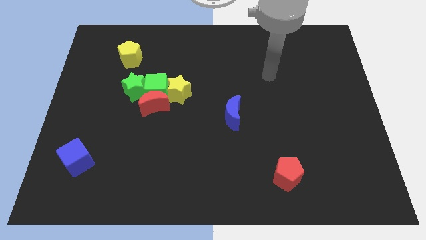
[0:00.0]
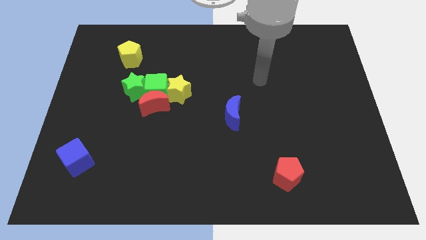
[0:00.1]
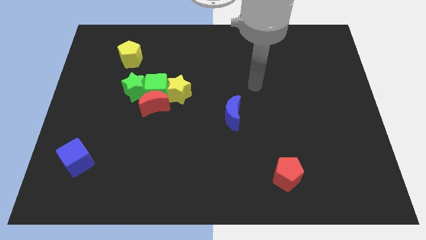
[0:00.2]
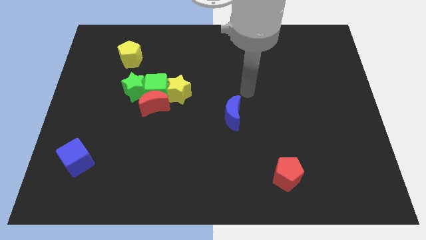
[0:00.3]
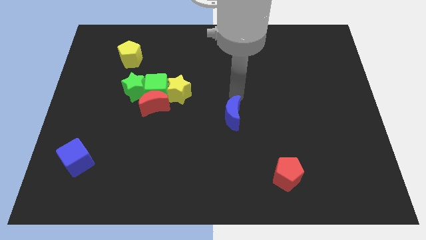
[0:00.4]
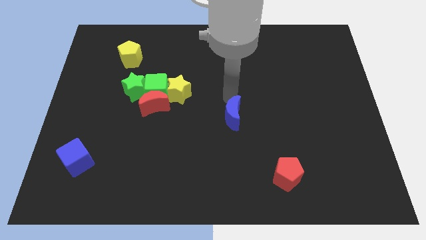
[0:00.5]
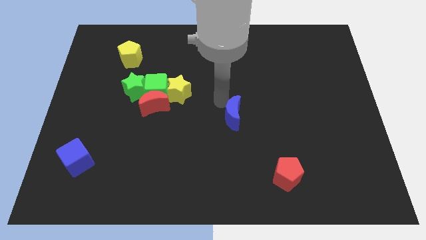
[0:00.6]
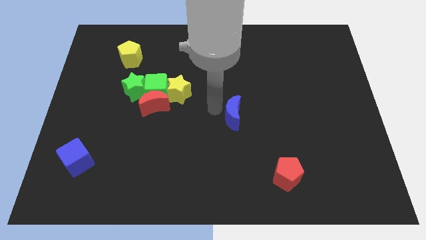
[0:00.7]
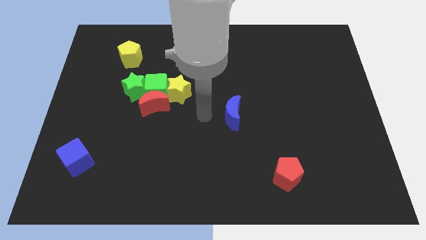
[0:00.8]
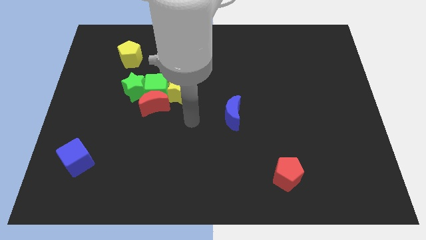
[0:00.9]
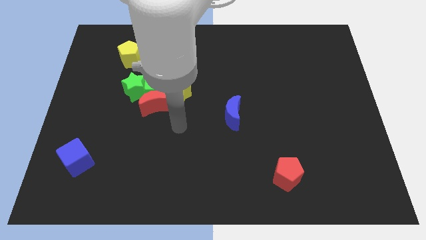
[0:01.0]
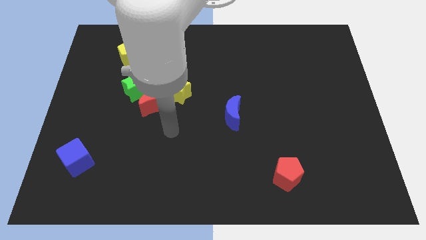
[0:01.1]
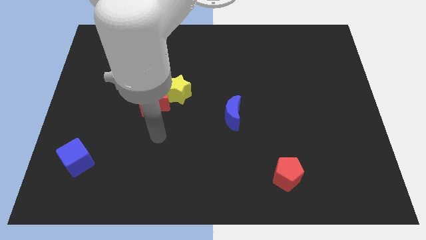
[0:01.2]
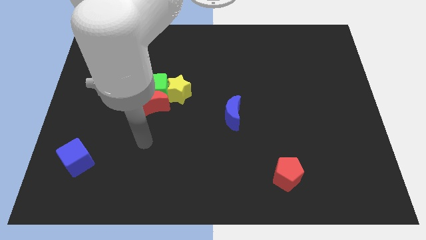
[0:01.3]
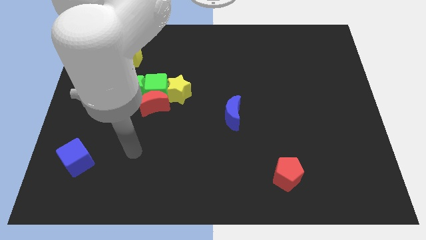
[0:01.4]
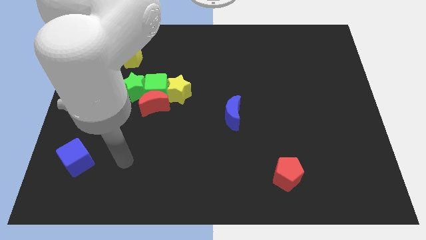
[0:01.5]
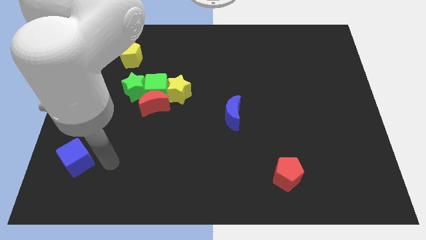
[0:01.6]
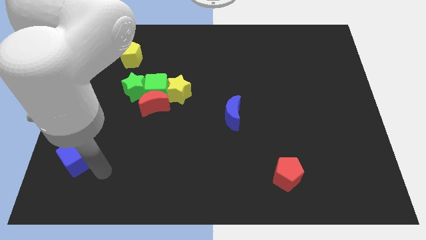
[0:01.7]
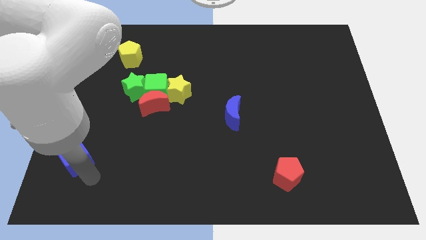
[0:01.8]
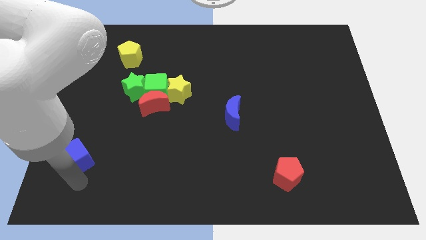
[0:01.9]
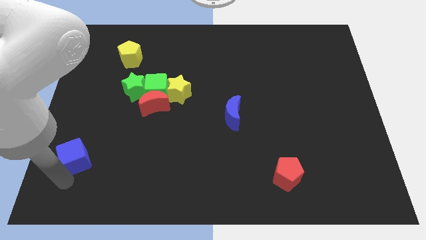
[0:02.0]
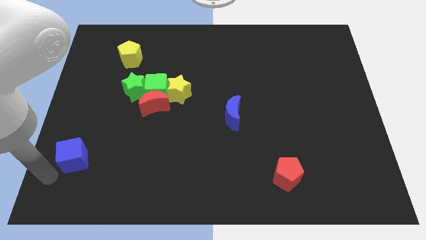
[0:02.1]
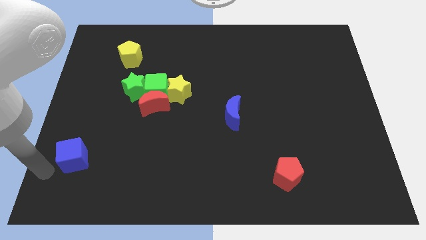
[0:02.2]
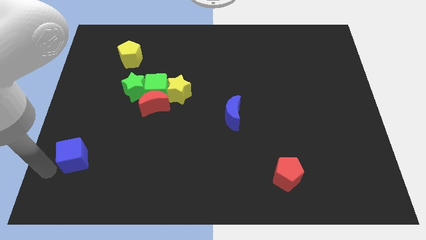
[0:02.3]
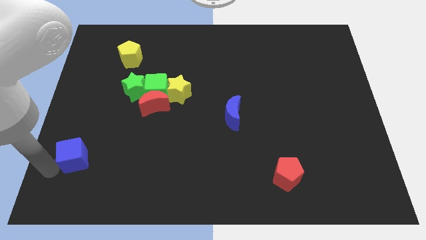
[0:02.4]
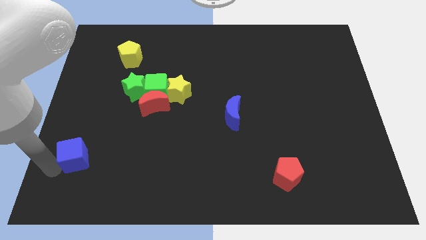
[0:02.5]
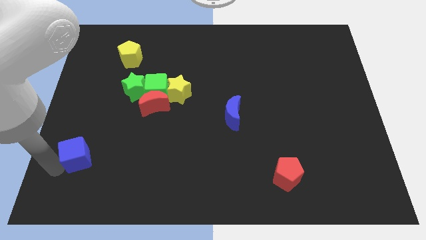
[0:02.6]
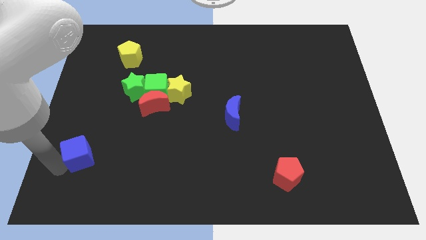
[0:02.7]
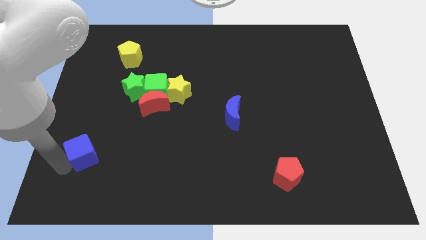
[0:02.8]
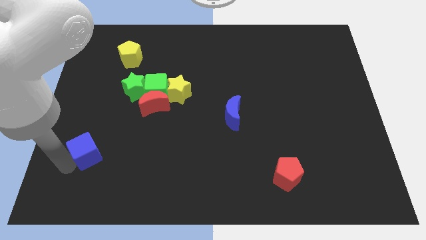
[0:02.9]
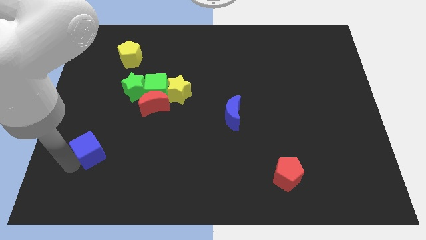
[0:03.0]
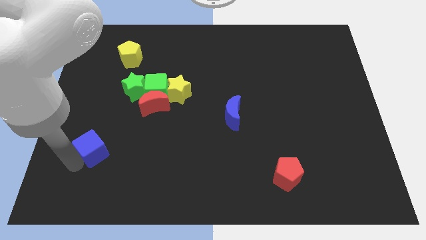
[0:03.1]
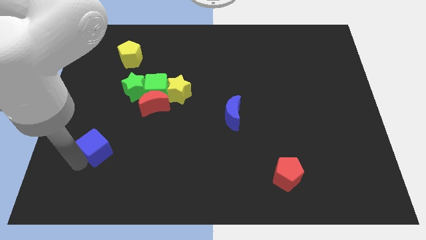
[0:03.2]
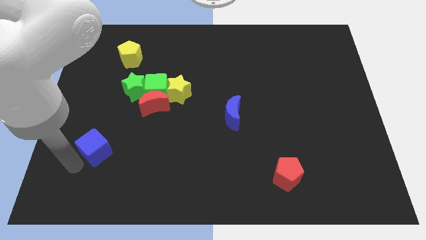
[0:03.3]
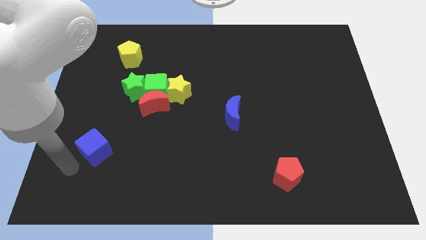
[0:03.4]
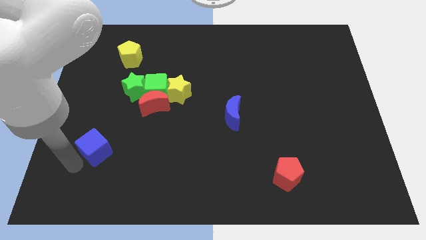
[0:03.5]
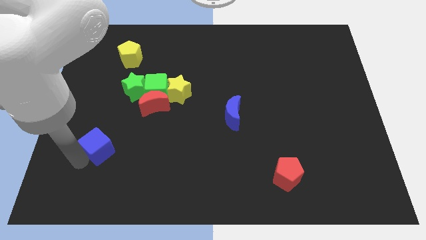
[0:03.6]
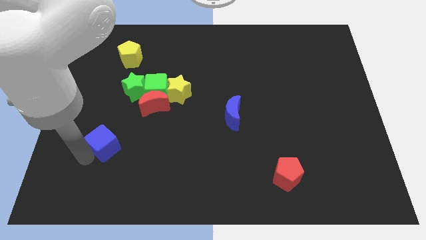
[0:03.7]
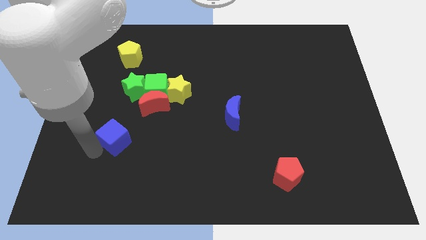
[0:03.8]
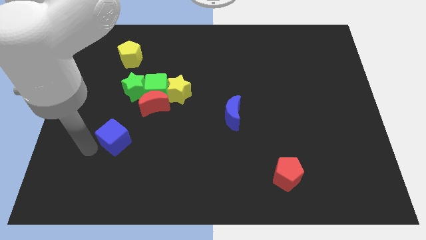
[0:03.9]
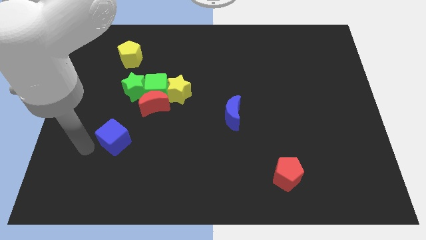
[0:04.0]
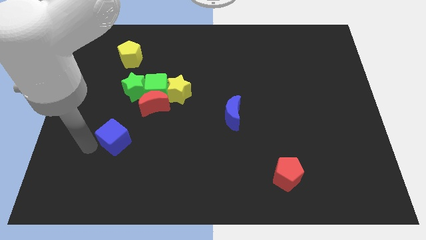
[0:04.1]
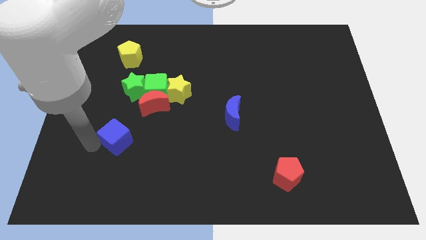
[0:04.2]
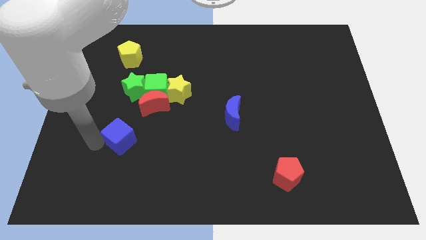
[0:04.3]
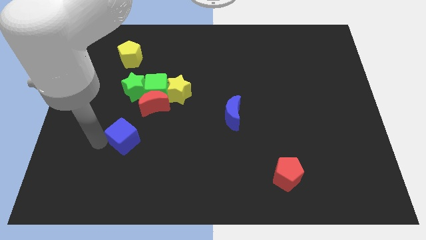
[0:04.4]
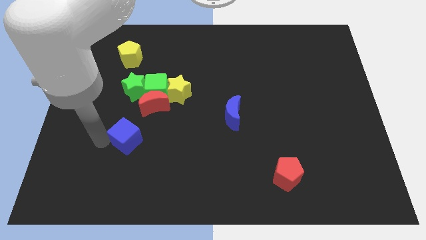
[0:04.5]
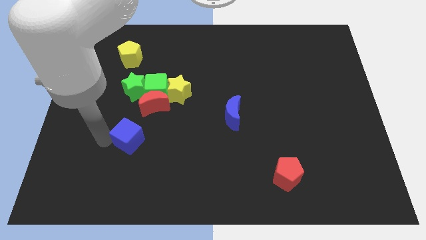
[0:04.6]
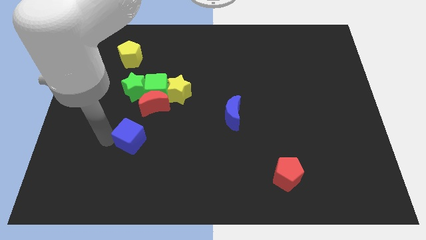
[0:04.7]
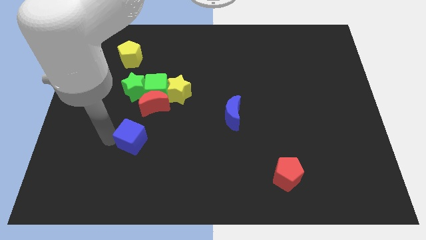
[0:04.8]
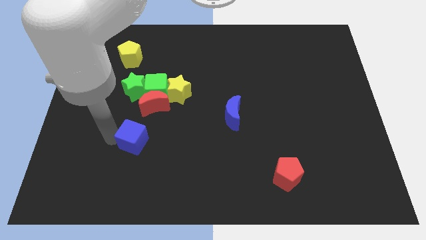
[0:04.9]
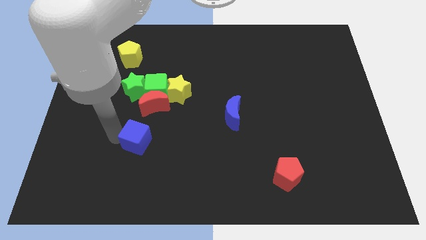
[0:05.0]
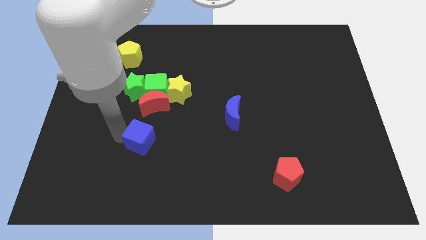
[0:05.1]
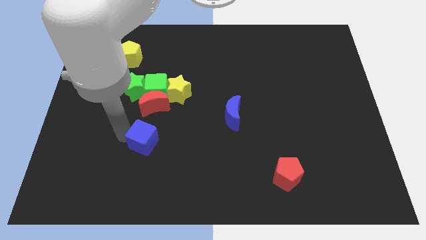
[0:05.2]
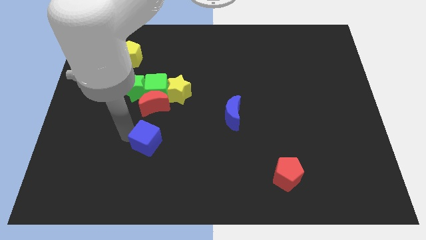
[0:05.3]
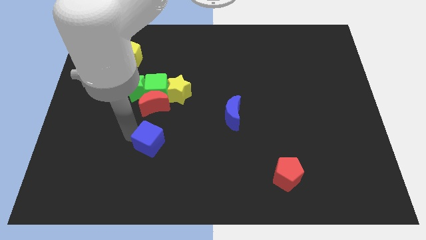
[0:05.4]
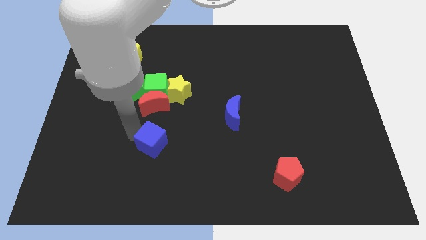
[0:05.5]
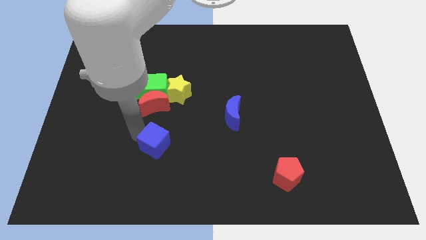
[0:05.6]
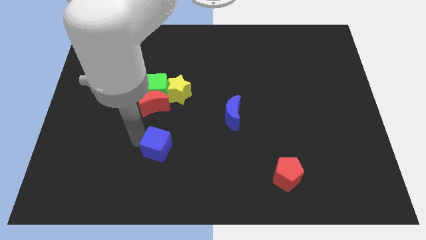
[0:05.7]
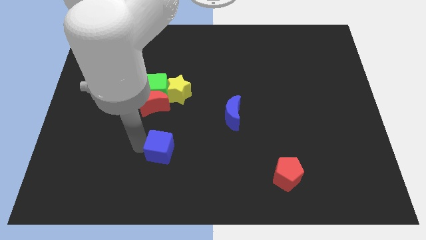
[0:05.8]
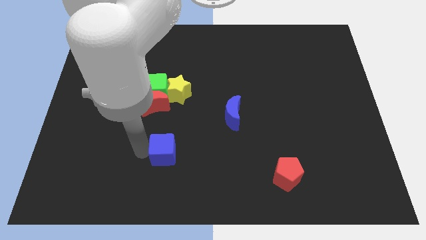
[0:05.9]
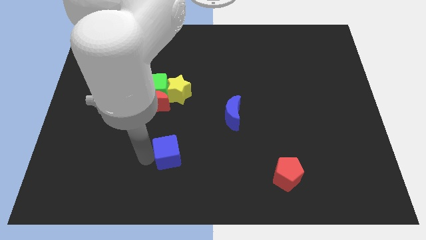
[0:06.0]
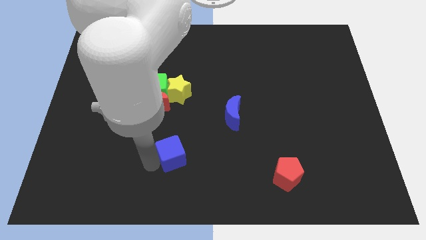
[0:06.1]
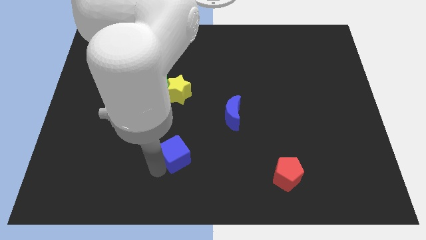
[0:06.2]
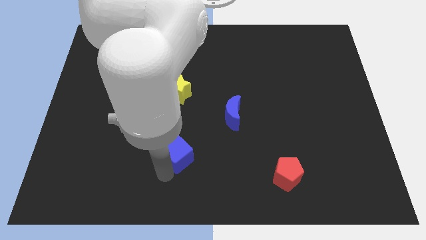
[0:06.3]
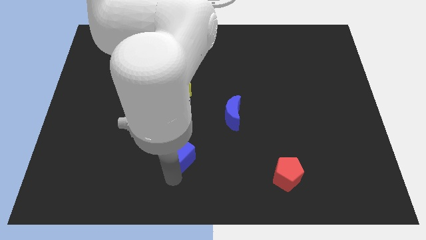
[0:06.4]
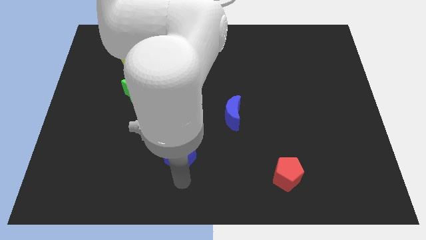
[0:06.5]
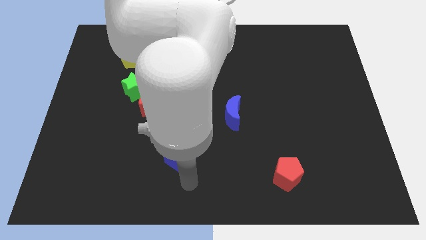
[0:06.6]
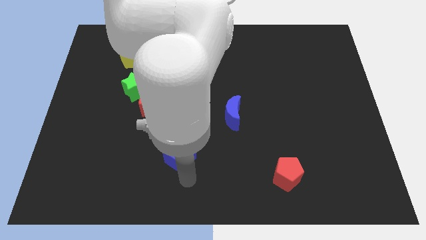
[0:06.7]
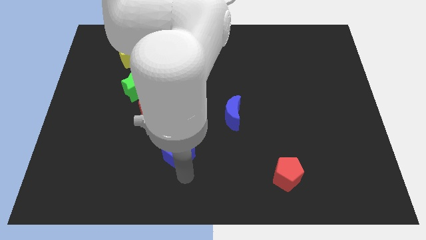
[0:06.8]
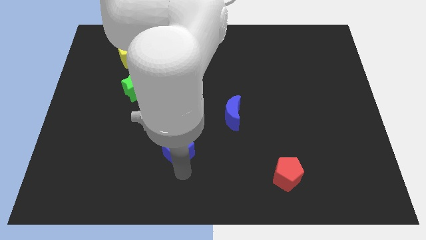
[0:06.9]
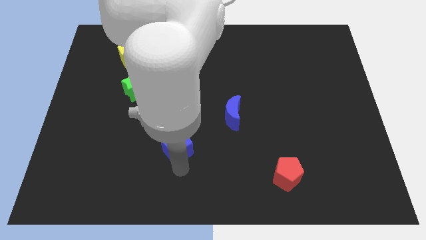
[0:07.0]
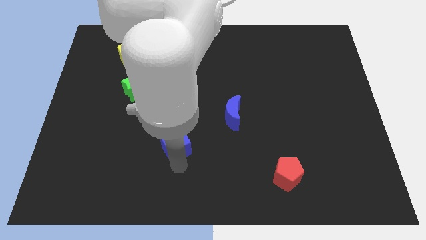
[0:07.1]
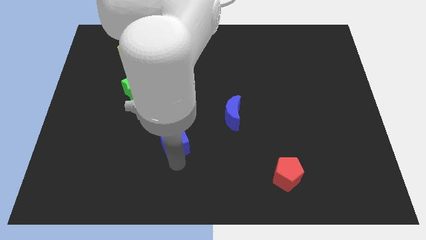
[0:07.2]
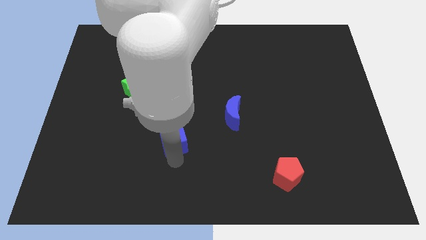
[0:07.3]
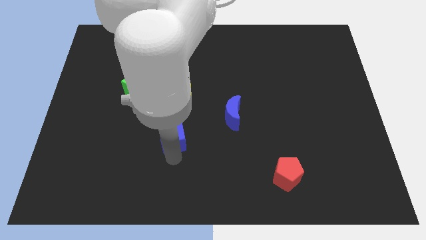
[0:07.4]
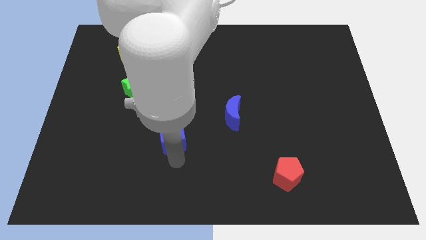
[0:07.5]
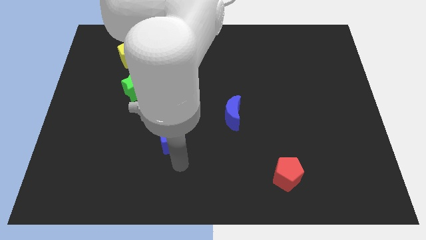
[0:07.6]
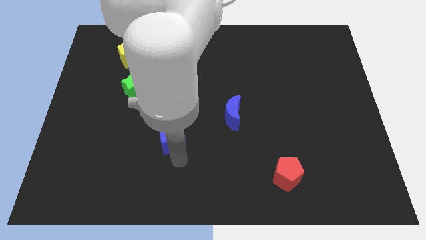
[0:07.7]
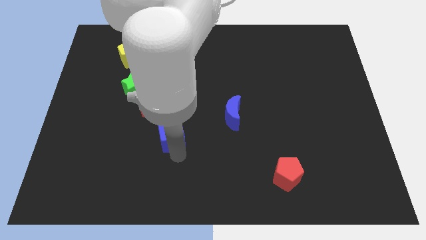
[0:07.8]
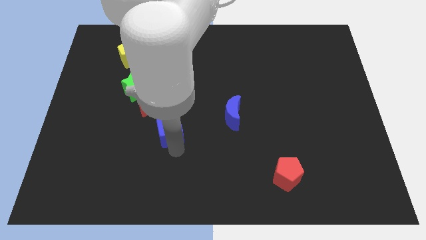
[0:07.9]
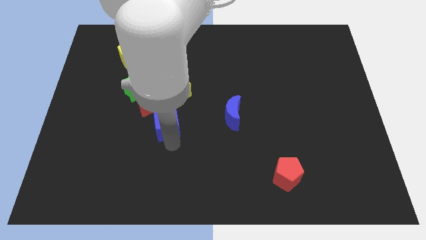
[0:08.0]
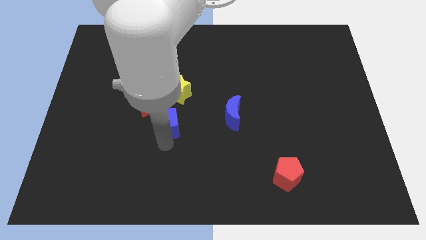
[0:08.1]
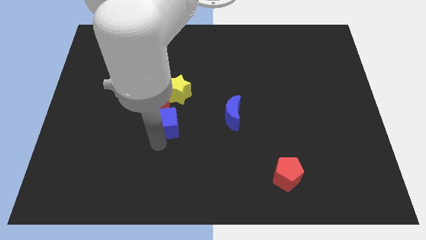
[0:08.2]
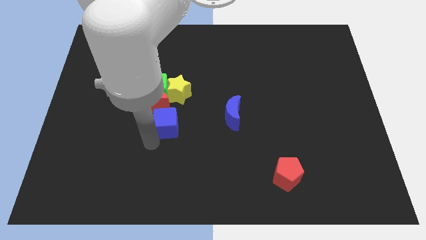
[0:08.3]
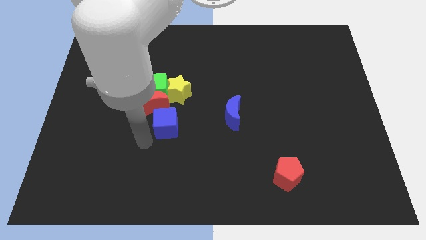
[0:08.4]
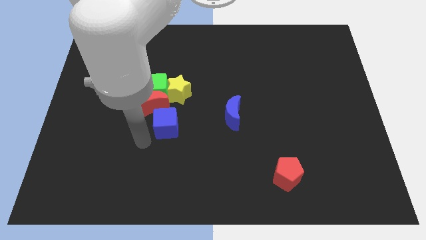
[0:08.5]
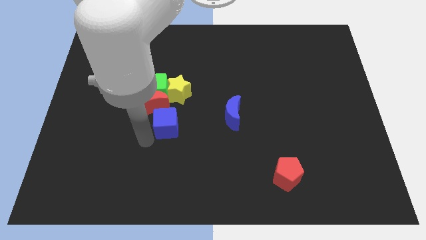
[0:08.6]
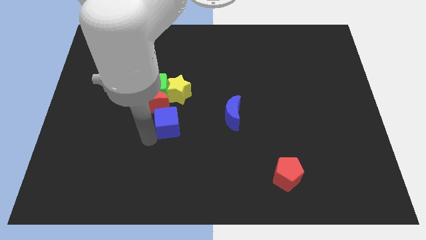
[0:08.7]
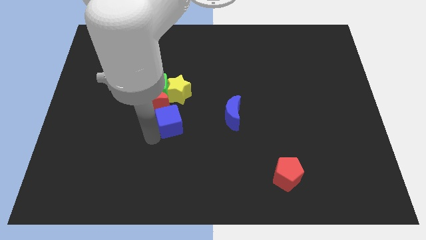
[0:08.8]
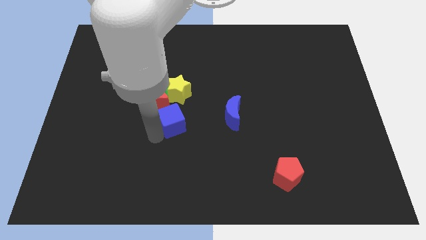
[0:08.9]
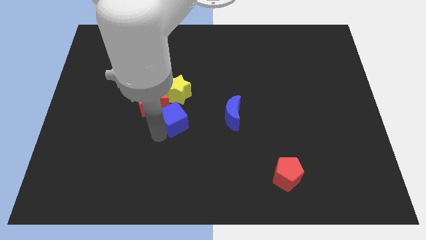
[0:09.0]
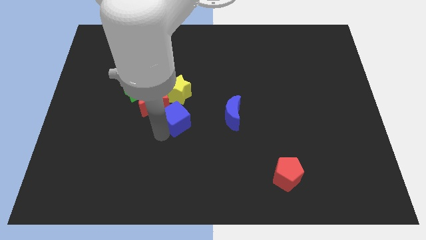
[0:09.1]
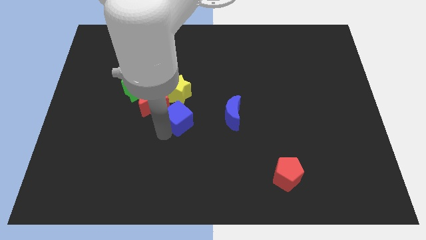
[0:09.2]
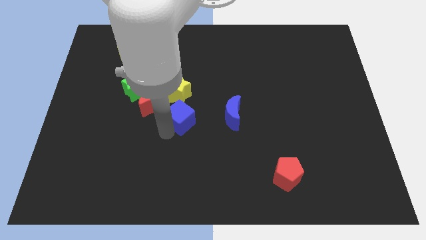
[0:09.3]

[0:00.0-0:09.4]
move the blue cube up and to the right
